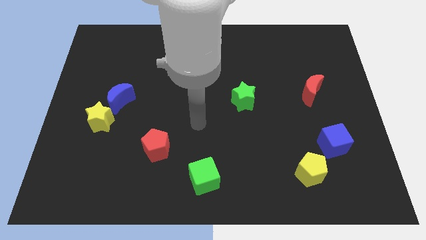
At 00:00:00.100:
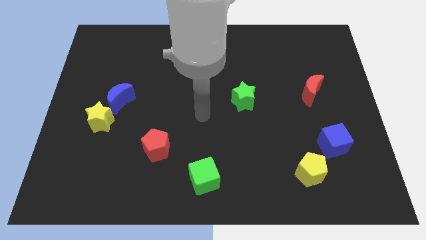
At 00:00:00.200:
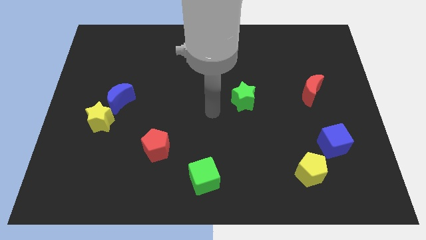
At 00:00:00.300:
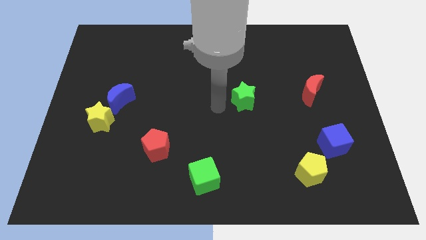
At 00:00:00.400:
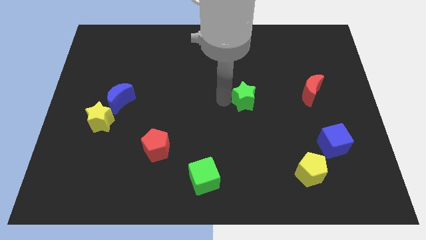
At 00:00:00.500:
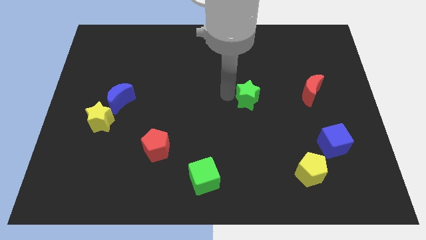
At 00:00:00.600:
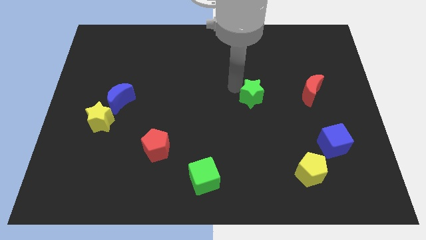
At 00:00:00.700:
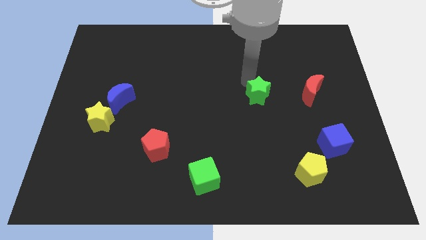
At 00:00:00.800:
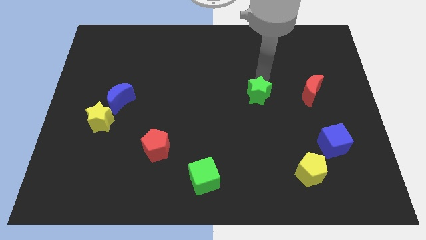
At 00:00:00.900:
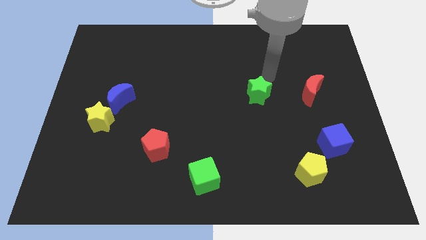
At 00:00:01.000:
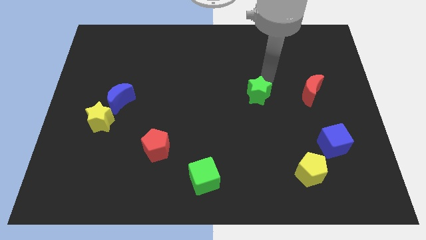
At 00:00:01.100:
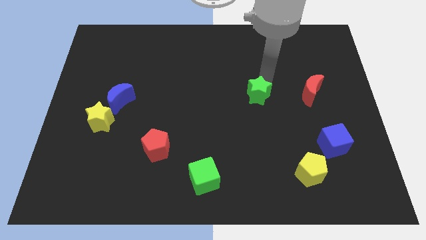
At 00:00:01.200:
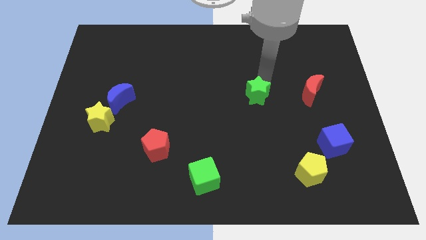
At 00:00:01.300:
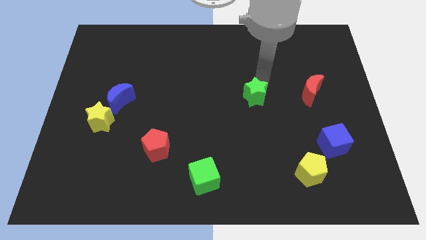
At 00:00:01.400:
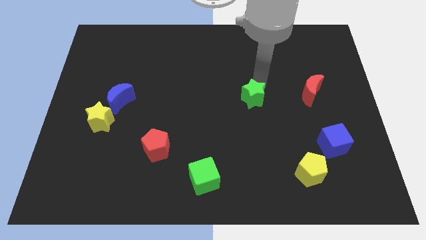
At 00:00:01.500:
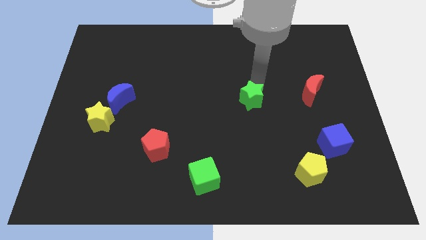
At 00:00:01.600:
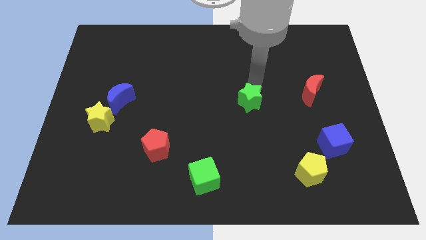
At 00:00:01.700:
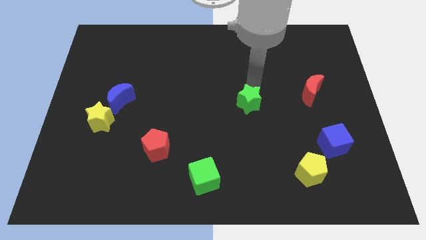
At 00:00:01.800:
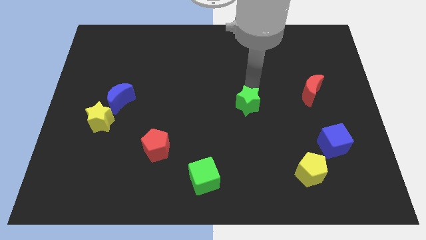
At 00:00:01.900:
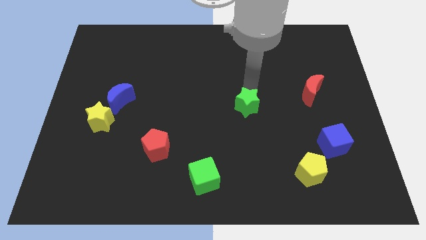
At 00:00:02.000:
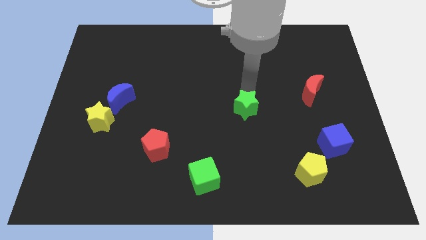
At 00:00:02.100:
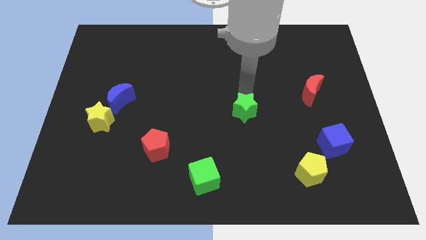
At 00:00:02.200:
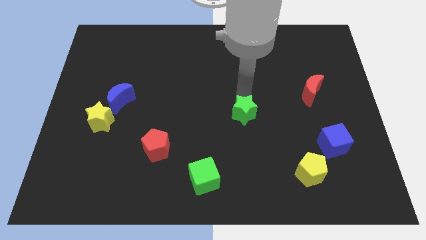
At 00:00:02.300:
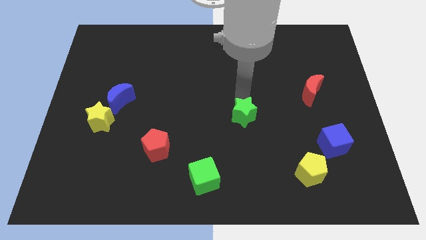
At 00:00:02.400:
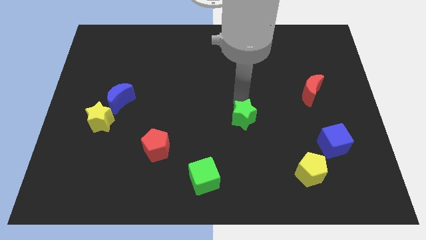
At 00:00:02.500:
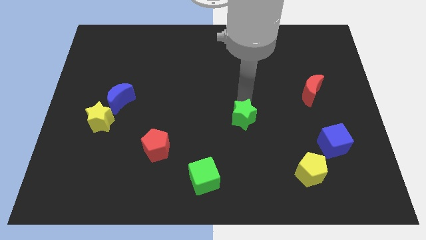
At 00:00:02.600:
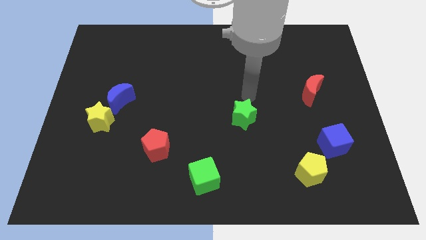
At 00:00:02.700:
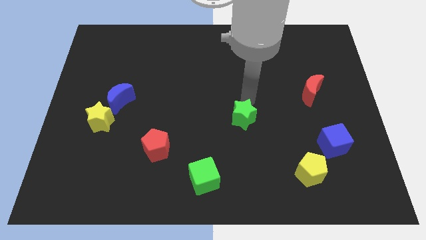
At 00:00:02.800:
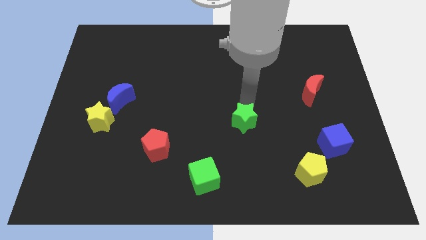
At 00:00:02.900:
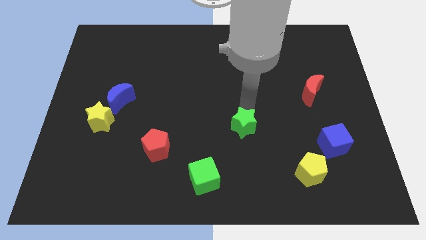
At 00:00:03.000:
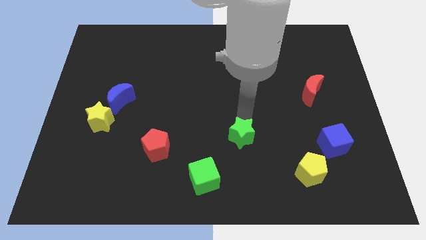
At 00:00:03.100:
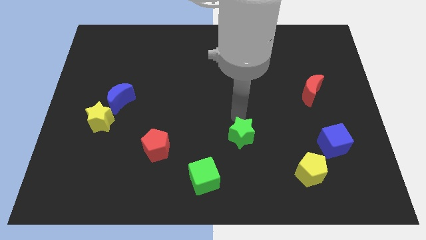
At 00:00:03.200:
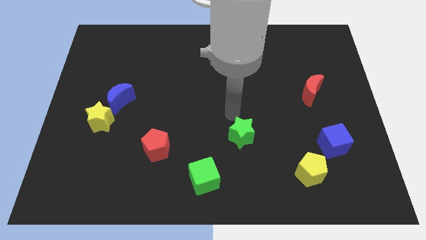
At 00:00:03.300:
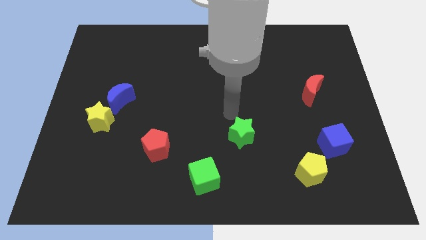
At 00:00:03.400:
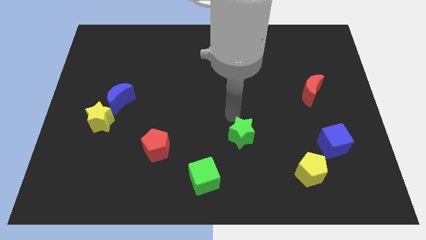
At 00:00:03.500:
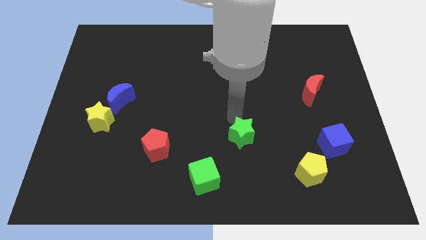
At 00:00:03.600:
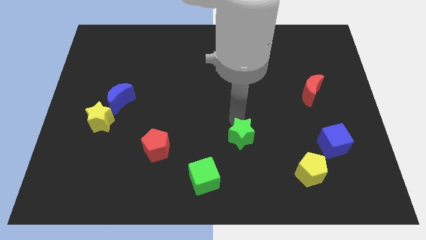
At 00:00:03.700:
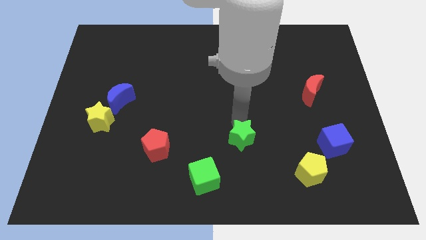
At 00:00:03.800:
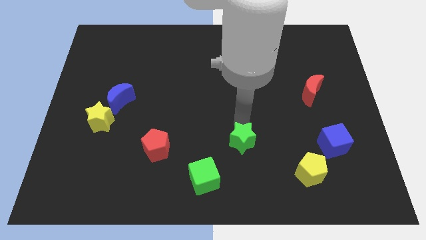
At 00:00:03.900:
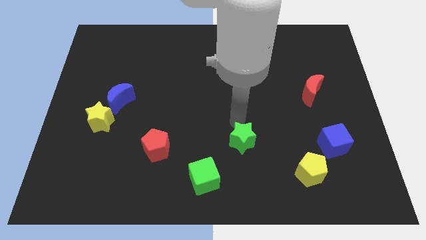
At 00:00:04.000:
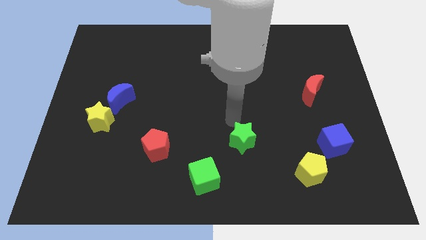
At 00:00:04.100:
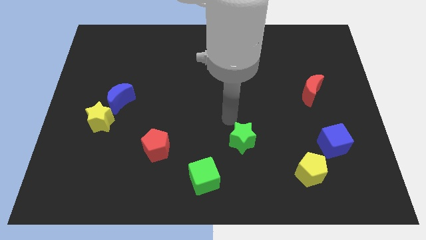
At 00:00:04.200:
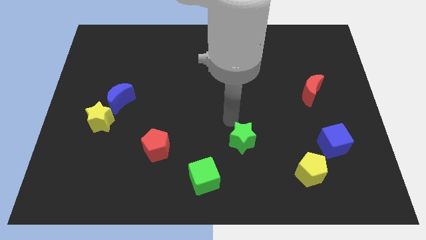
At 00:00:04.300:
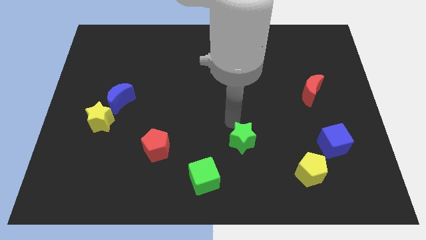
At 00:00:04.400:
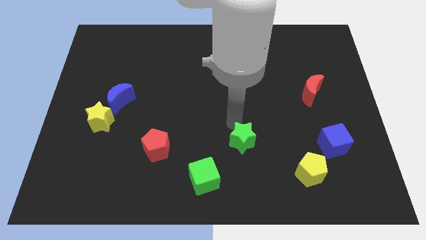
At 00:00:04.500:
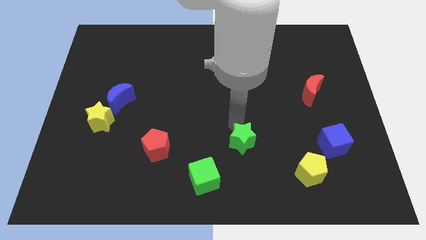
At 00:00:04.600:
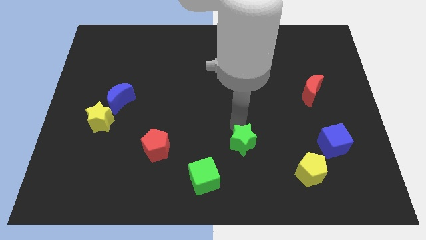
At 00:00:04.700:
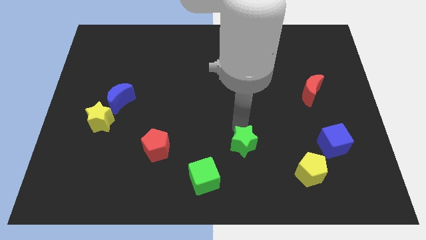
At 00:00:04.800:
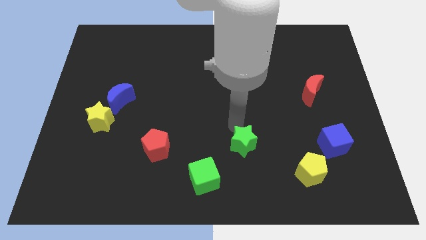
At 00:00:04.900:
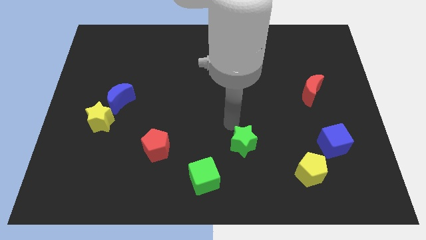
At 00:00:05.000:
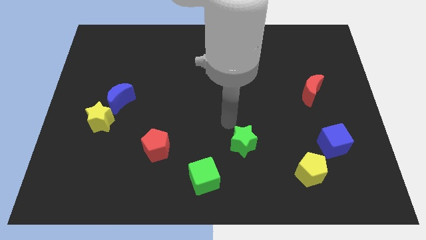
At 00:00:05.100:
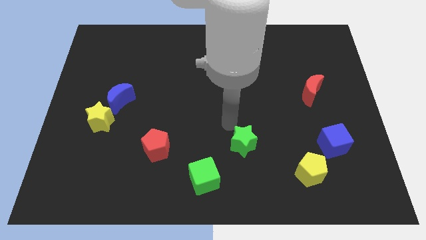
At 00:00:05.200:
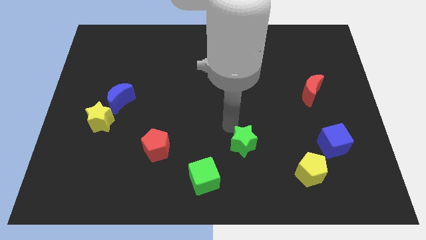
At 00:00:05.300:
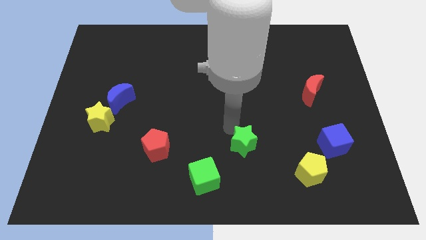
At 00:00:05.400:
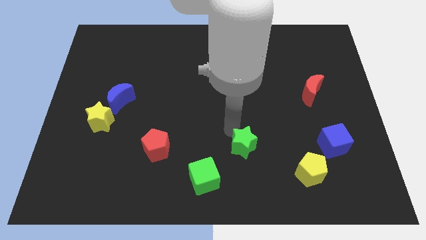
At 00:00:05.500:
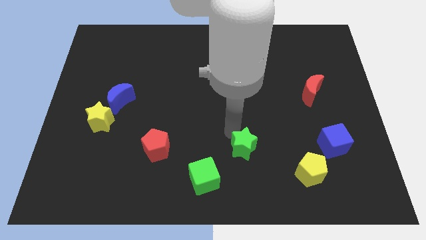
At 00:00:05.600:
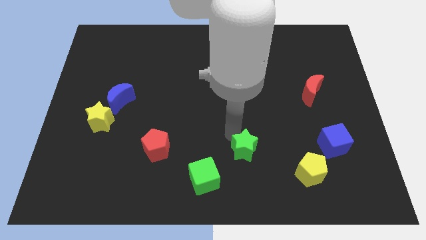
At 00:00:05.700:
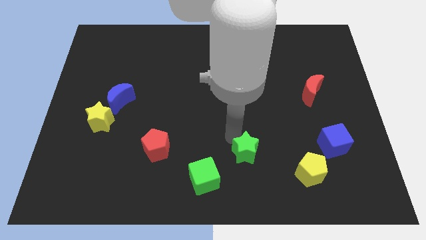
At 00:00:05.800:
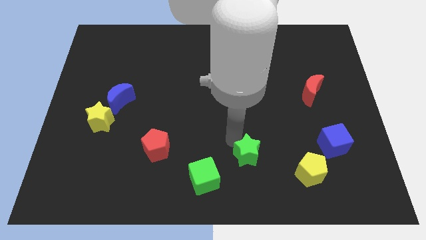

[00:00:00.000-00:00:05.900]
put the green star to the left side of the yellow pentagon

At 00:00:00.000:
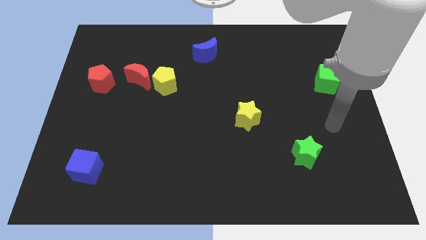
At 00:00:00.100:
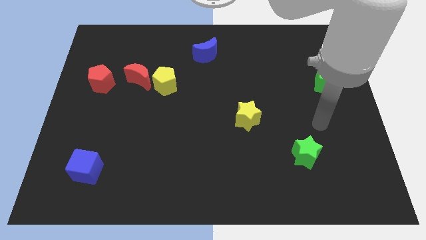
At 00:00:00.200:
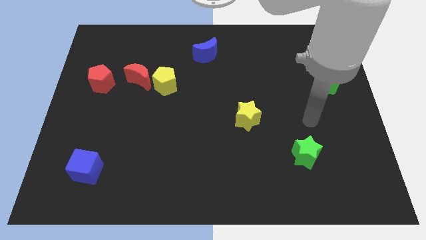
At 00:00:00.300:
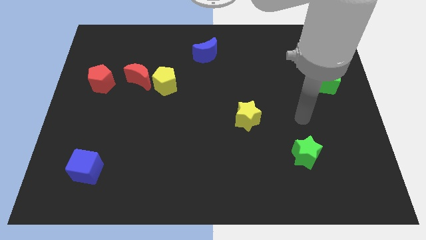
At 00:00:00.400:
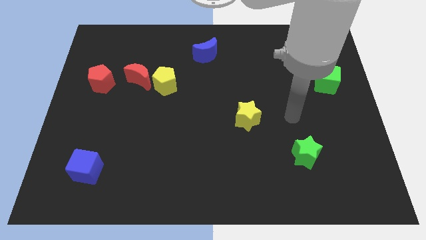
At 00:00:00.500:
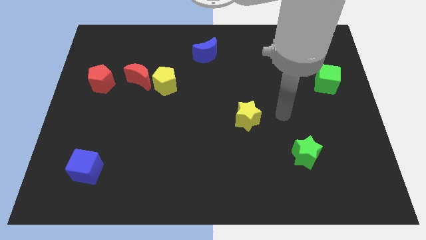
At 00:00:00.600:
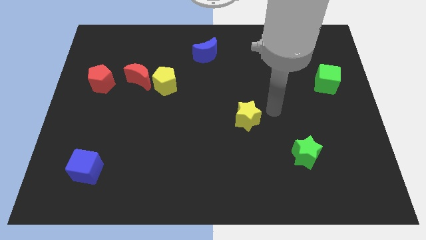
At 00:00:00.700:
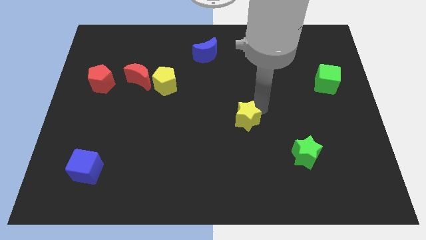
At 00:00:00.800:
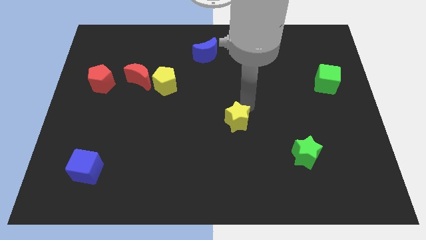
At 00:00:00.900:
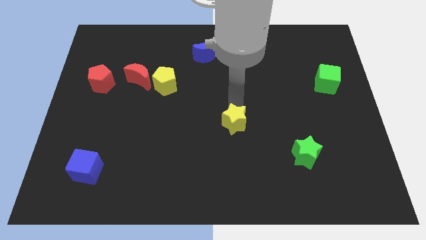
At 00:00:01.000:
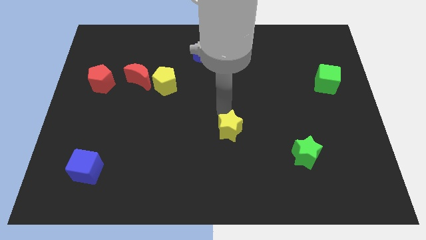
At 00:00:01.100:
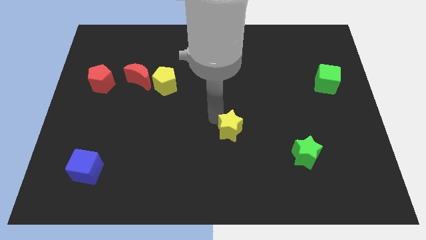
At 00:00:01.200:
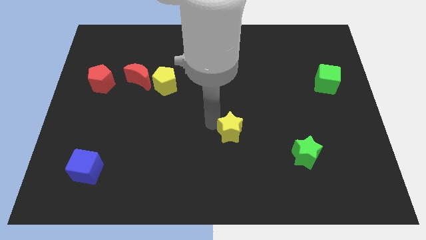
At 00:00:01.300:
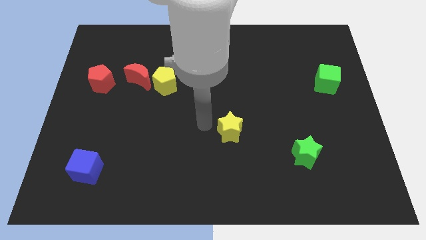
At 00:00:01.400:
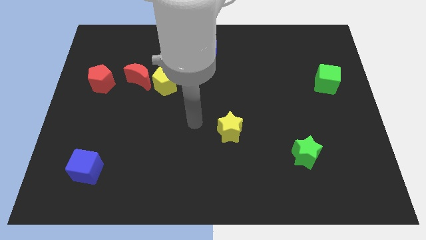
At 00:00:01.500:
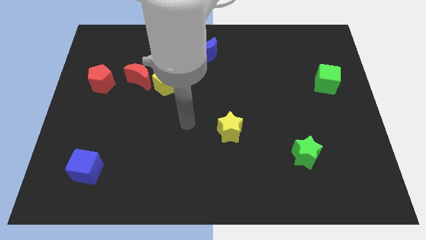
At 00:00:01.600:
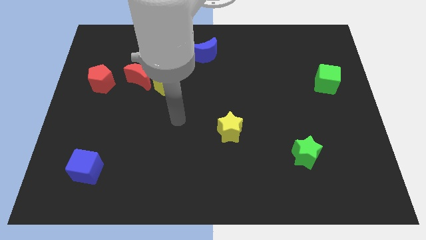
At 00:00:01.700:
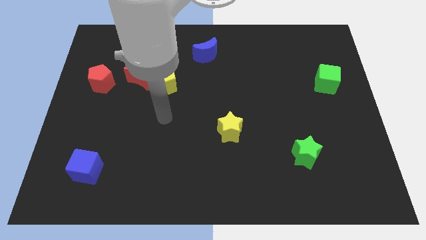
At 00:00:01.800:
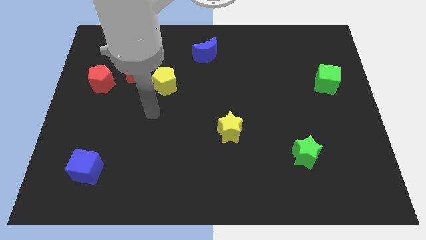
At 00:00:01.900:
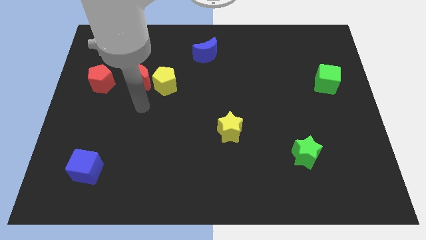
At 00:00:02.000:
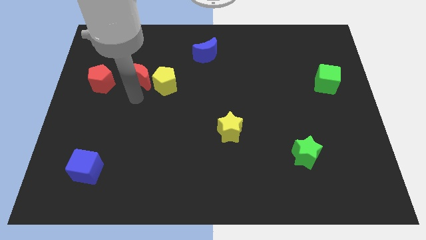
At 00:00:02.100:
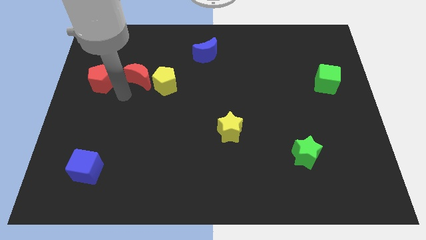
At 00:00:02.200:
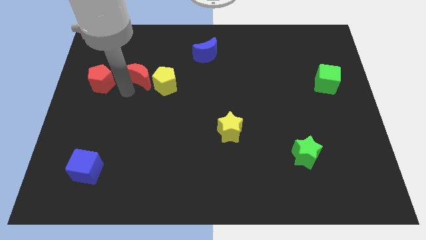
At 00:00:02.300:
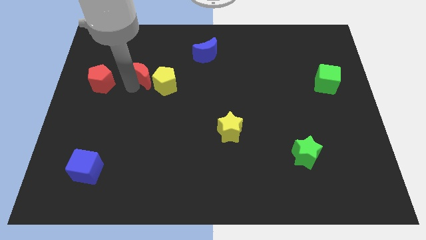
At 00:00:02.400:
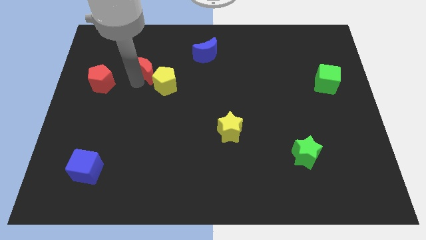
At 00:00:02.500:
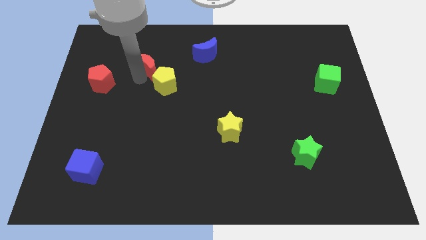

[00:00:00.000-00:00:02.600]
push the red moon to the top side of the yellow pentagon
